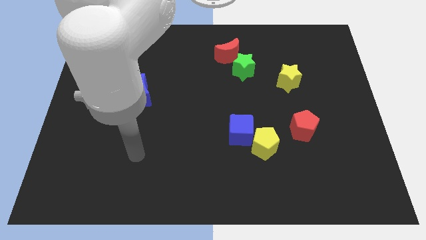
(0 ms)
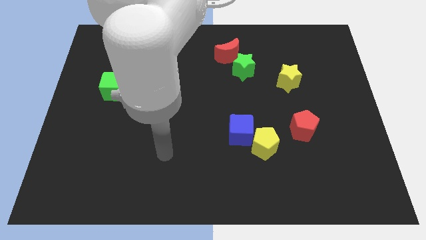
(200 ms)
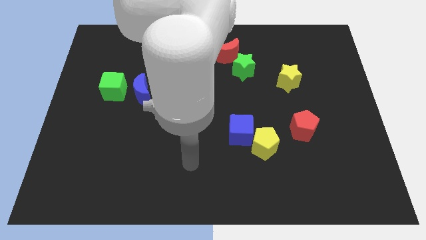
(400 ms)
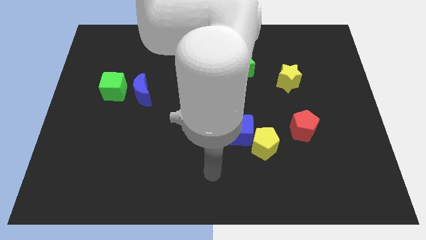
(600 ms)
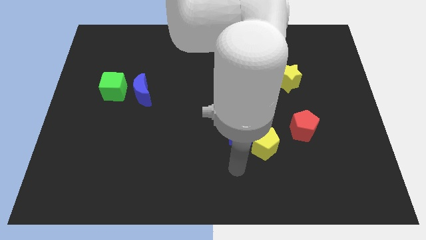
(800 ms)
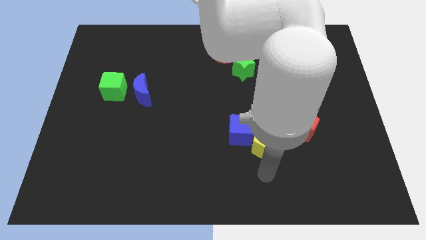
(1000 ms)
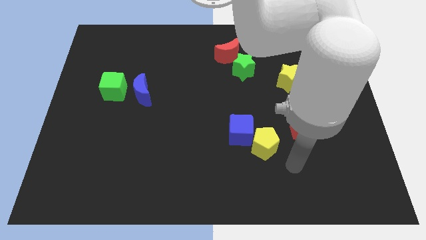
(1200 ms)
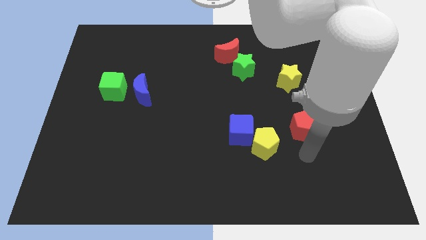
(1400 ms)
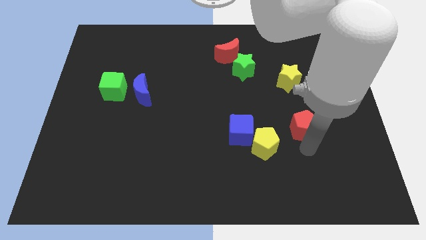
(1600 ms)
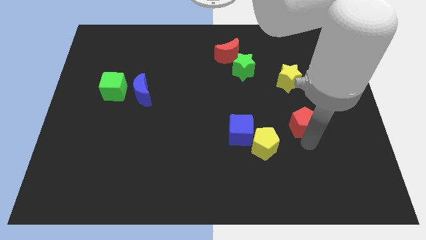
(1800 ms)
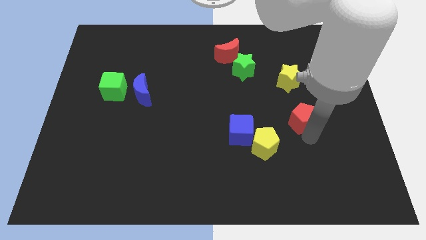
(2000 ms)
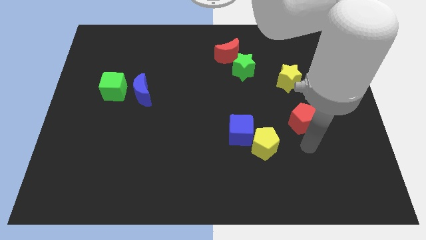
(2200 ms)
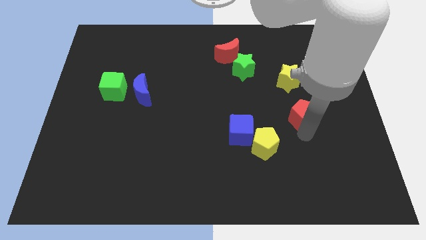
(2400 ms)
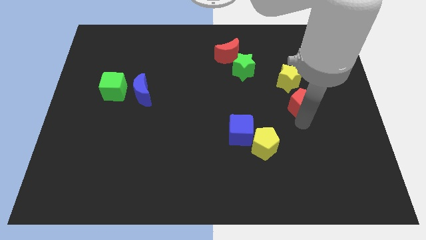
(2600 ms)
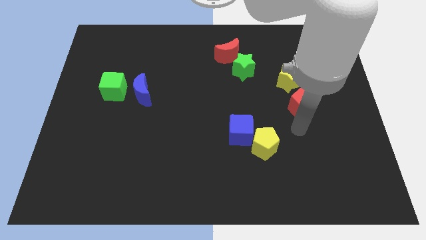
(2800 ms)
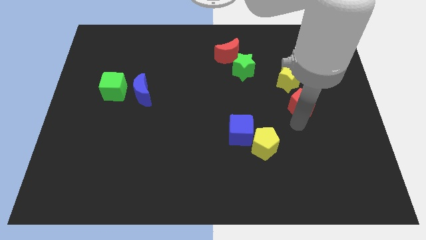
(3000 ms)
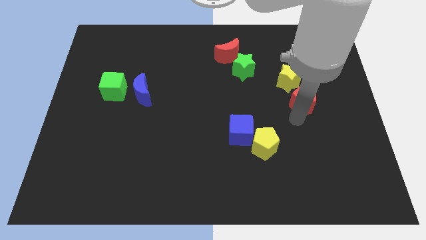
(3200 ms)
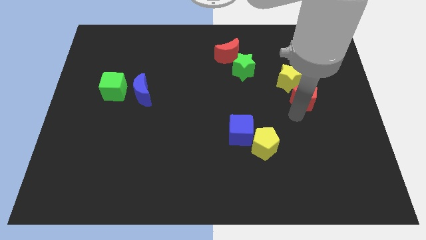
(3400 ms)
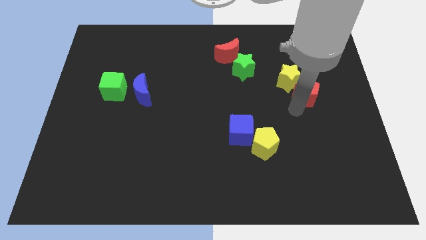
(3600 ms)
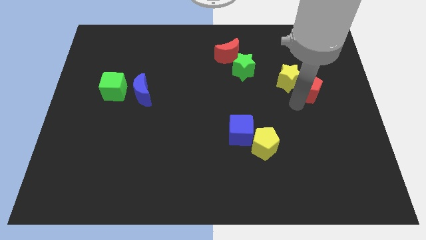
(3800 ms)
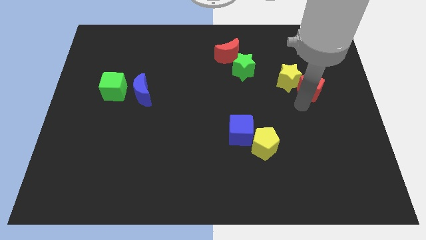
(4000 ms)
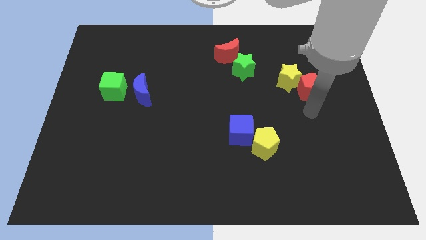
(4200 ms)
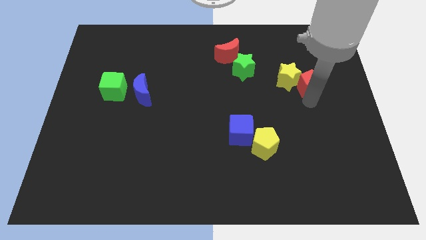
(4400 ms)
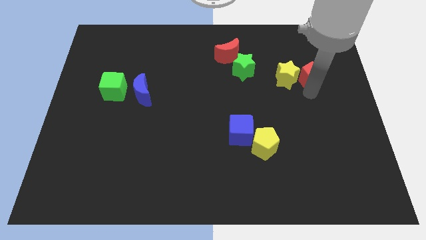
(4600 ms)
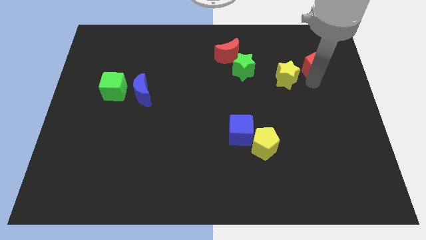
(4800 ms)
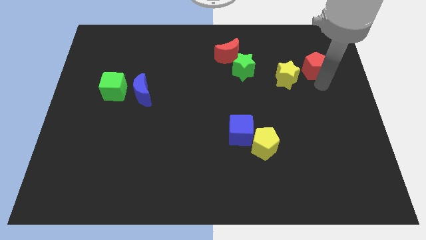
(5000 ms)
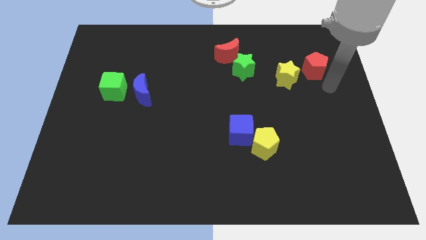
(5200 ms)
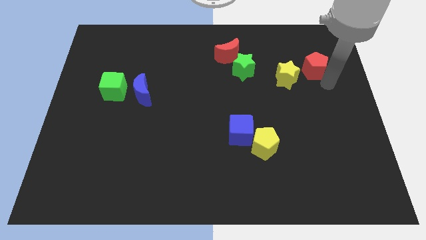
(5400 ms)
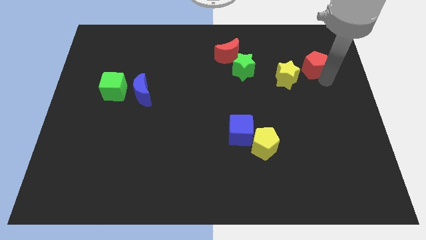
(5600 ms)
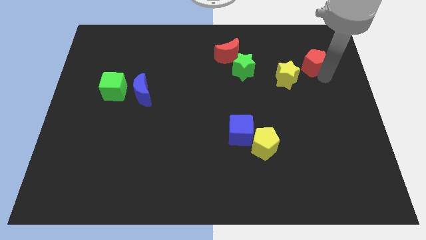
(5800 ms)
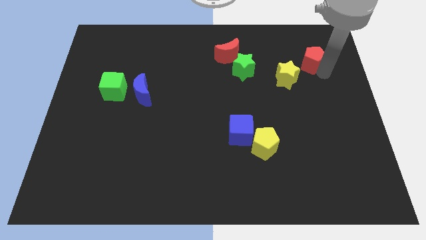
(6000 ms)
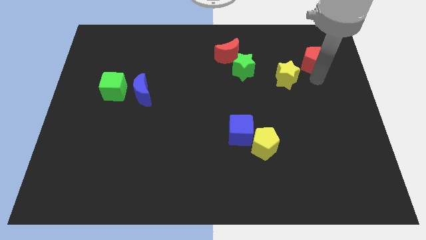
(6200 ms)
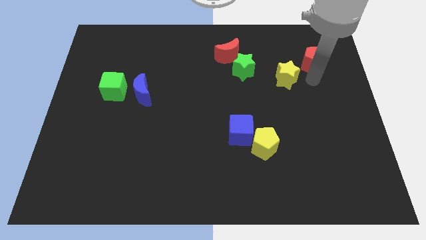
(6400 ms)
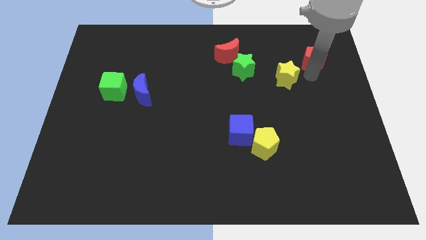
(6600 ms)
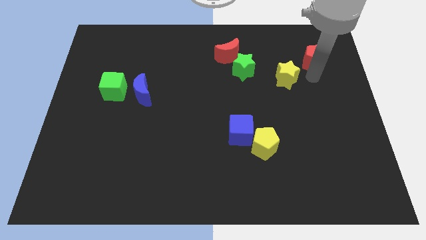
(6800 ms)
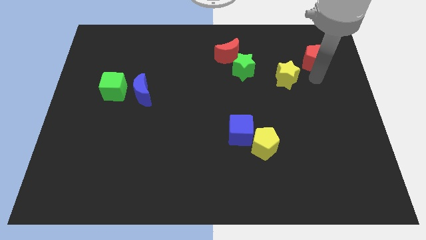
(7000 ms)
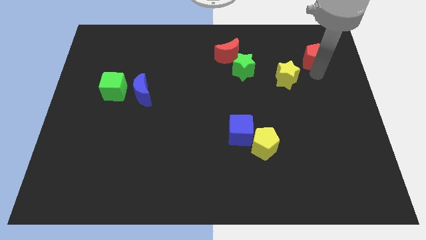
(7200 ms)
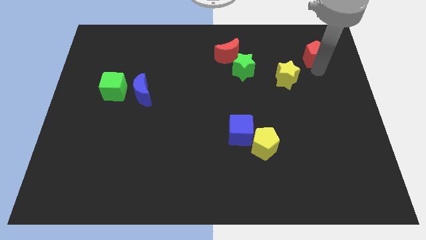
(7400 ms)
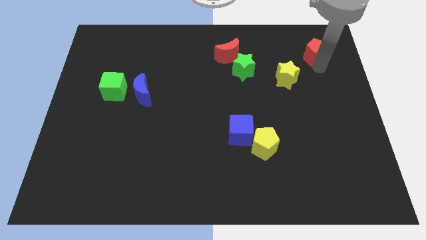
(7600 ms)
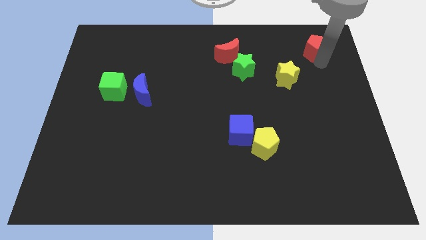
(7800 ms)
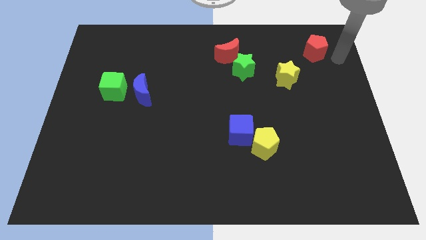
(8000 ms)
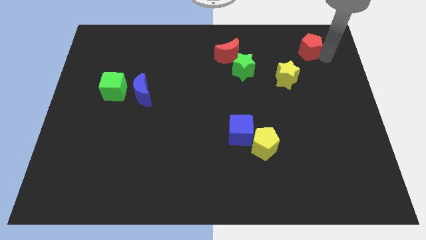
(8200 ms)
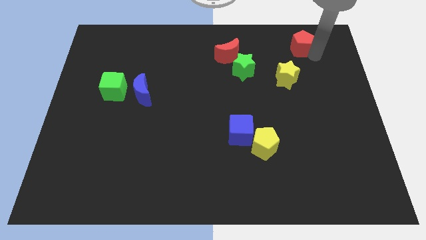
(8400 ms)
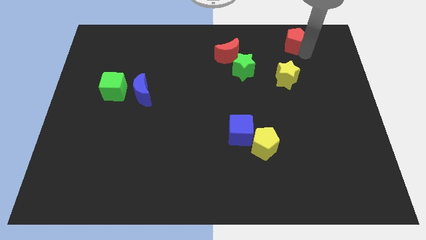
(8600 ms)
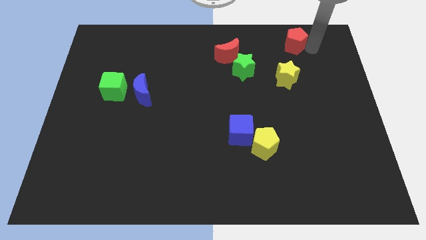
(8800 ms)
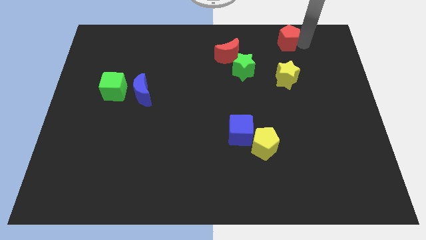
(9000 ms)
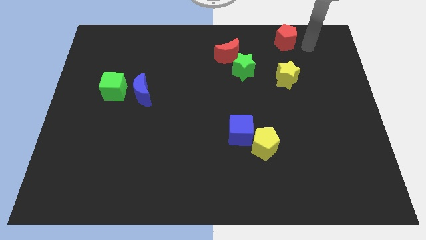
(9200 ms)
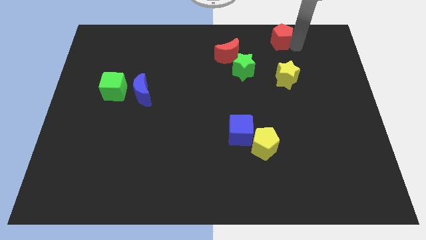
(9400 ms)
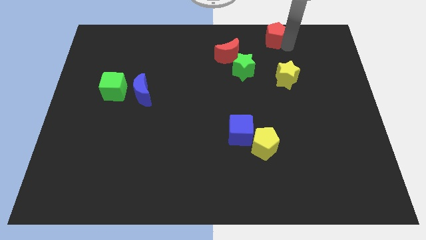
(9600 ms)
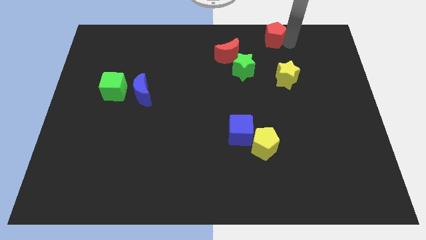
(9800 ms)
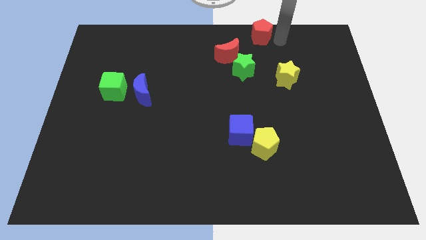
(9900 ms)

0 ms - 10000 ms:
put the red pentagon to the top side

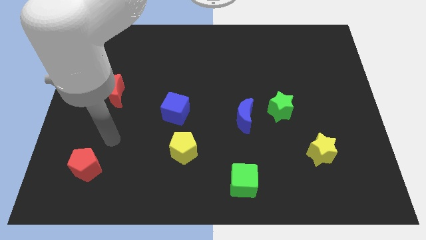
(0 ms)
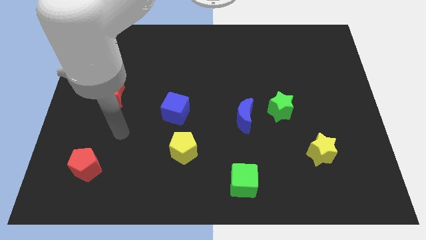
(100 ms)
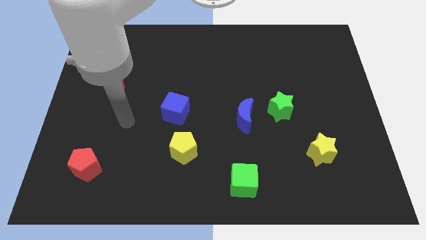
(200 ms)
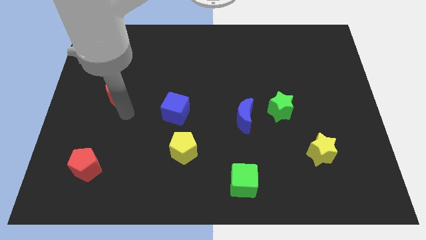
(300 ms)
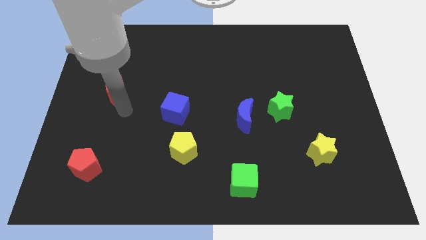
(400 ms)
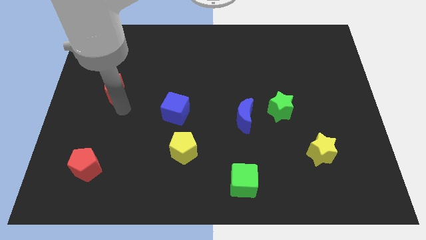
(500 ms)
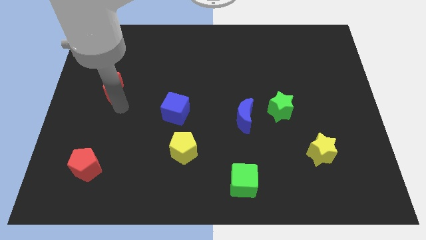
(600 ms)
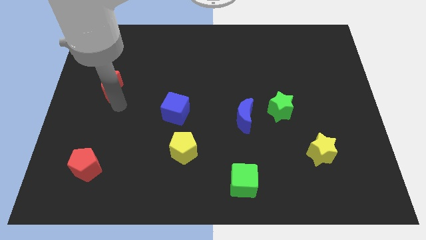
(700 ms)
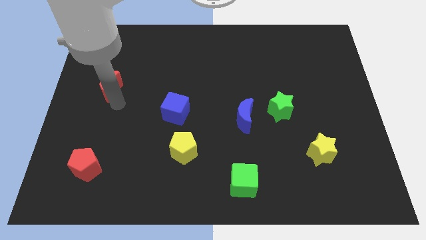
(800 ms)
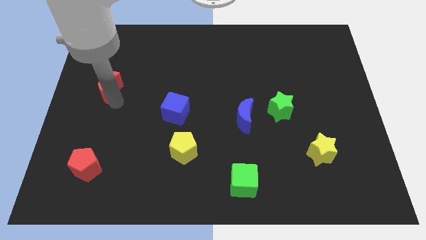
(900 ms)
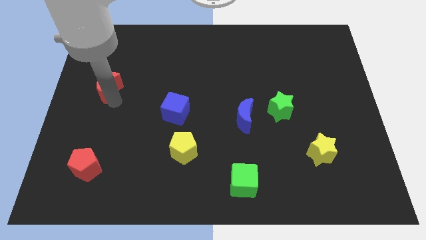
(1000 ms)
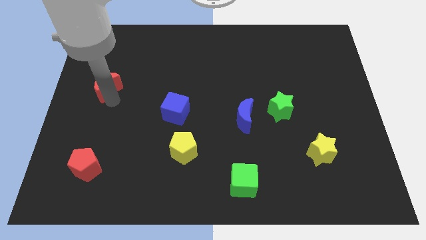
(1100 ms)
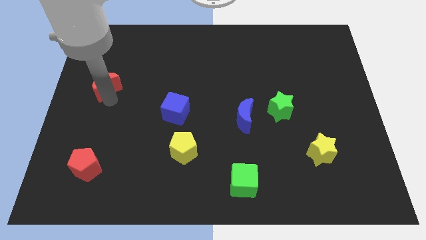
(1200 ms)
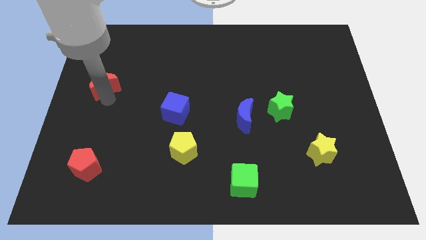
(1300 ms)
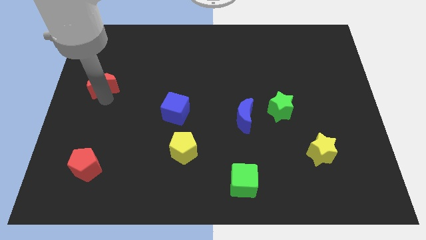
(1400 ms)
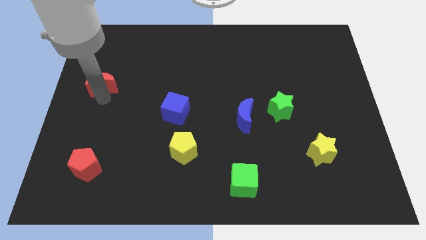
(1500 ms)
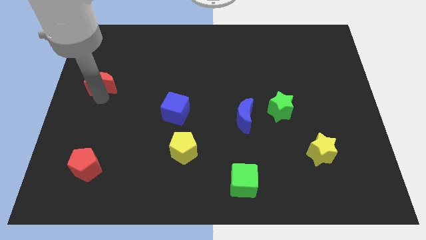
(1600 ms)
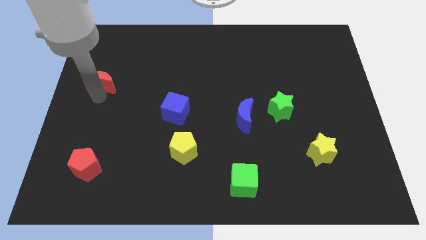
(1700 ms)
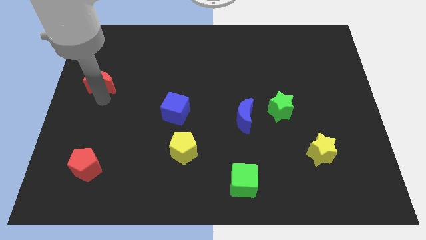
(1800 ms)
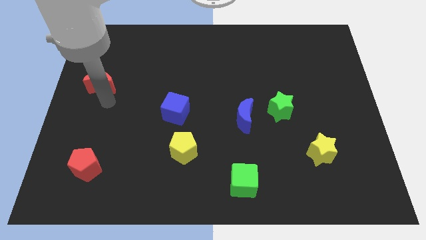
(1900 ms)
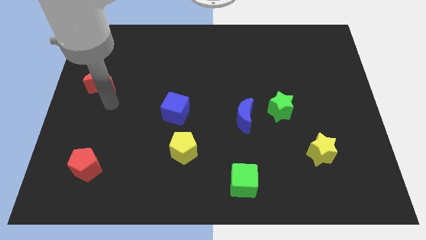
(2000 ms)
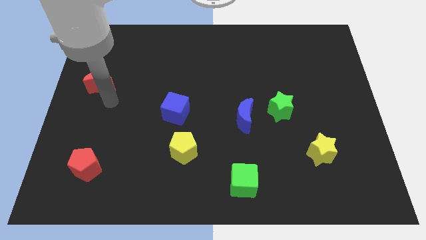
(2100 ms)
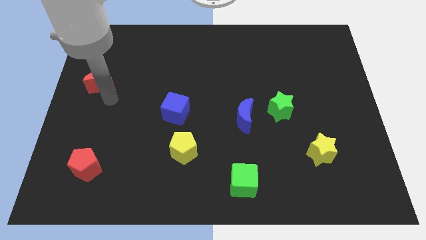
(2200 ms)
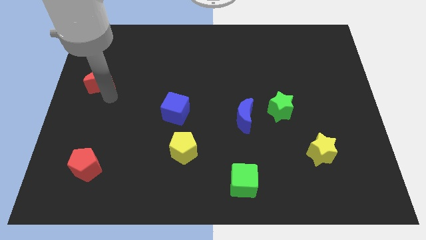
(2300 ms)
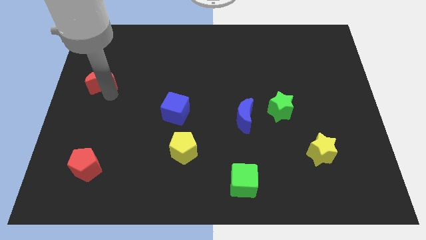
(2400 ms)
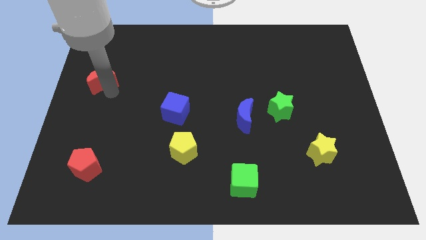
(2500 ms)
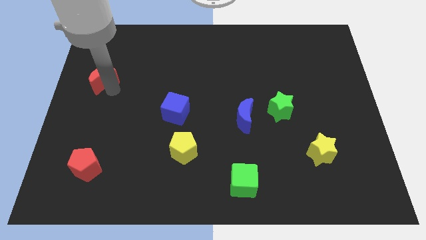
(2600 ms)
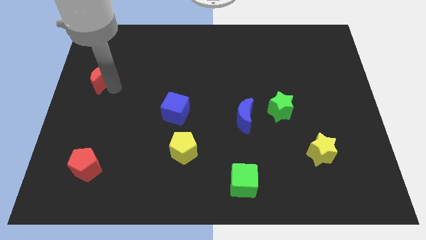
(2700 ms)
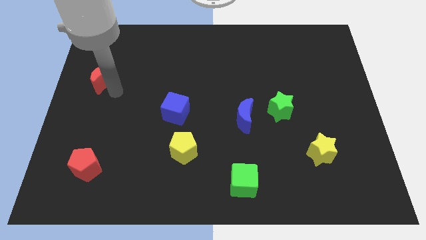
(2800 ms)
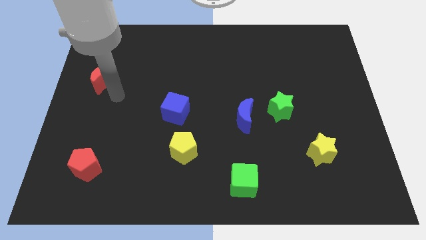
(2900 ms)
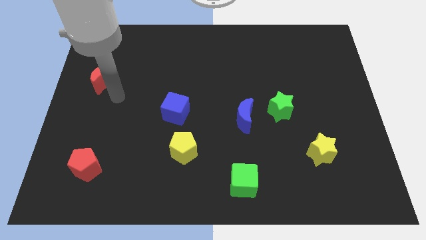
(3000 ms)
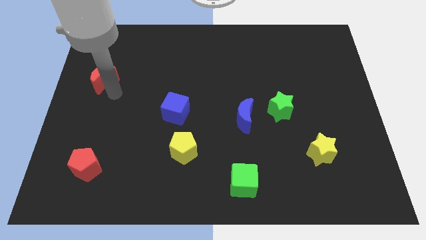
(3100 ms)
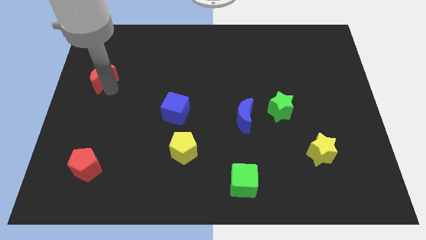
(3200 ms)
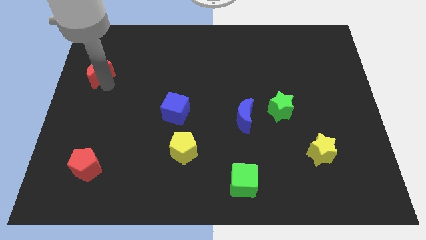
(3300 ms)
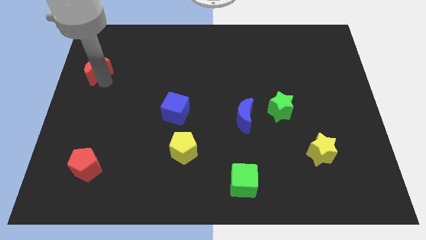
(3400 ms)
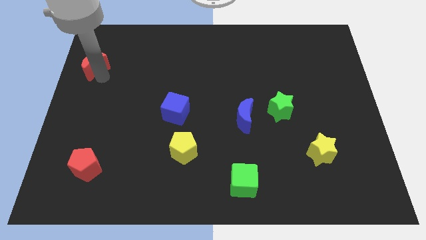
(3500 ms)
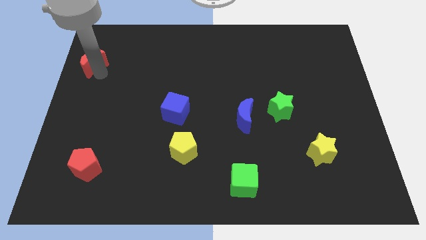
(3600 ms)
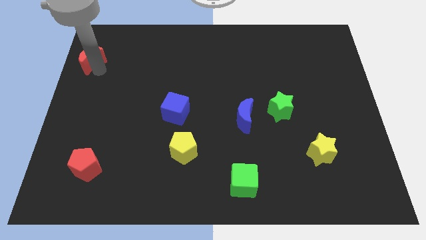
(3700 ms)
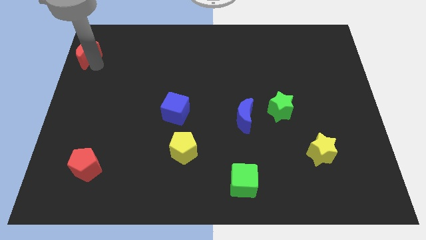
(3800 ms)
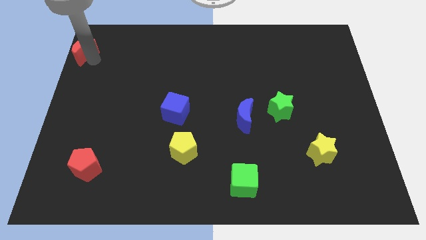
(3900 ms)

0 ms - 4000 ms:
slide the red moon to the top left
